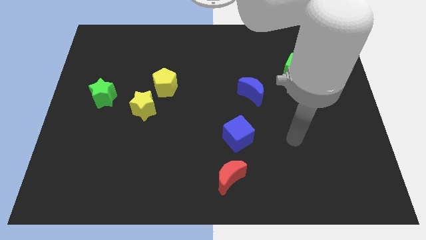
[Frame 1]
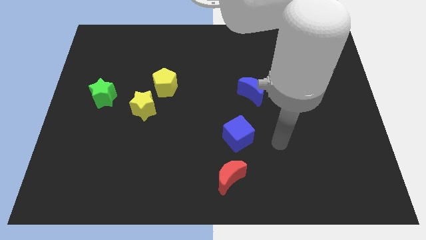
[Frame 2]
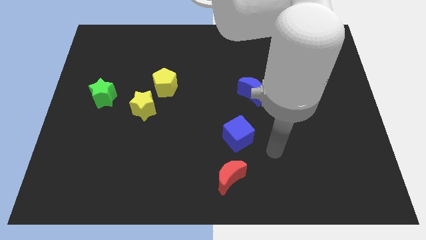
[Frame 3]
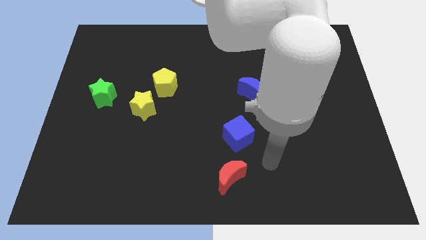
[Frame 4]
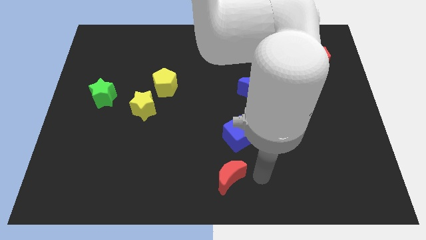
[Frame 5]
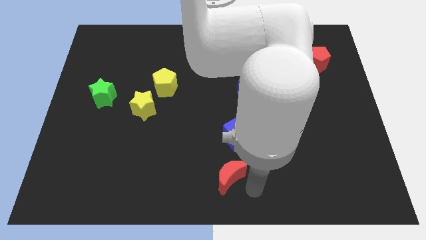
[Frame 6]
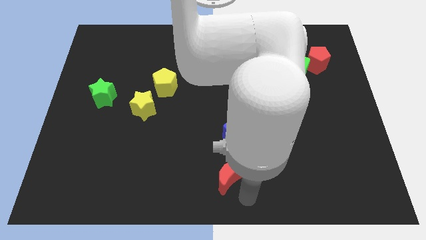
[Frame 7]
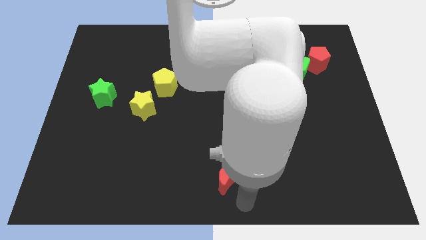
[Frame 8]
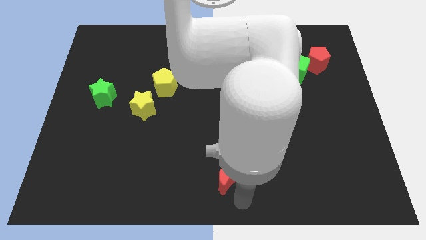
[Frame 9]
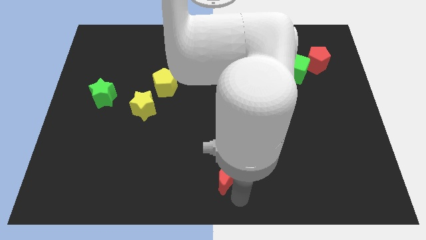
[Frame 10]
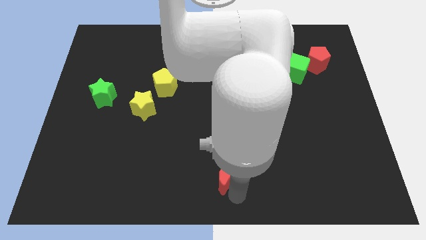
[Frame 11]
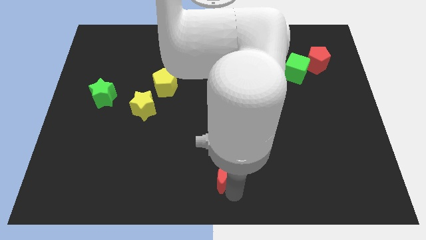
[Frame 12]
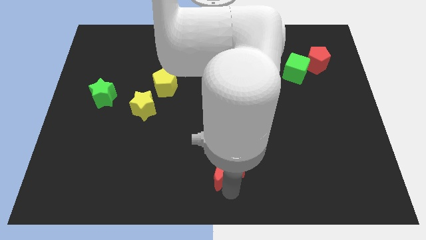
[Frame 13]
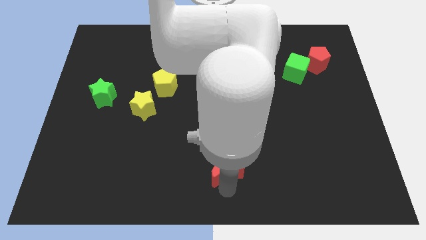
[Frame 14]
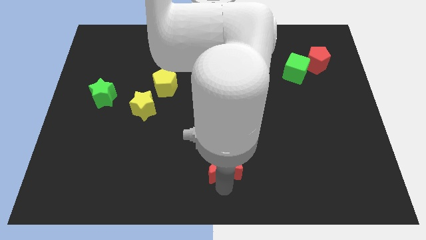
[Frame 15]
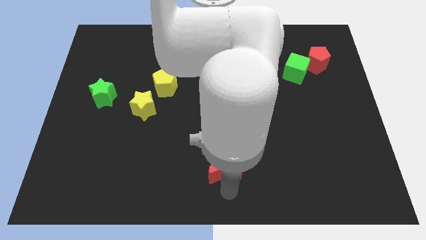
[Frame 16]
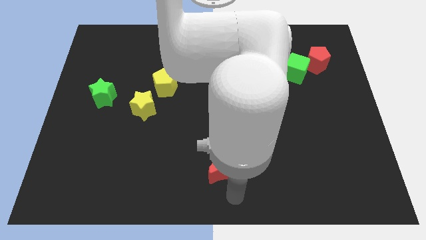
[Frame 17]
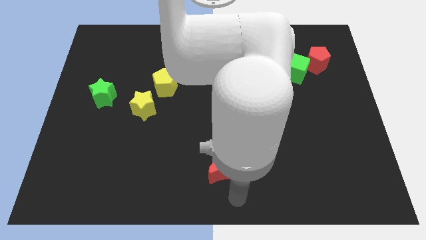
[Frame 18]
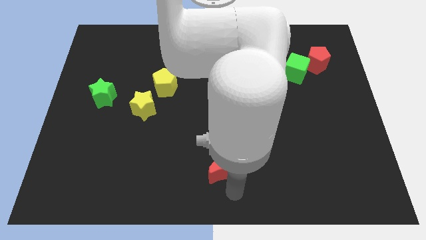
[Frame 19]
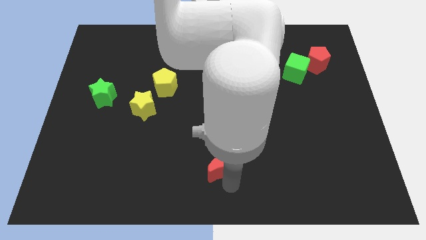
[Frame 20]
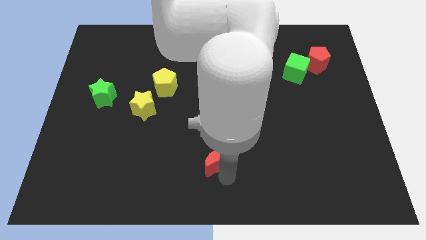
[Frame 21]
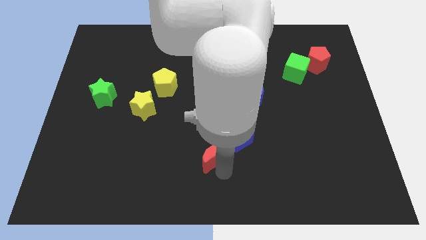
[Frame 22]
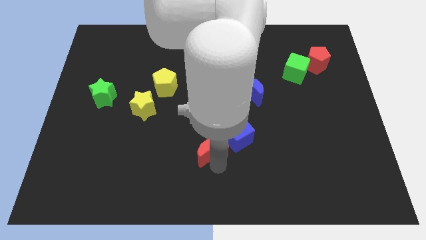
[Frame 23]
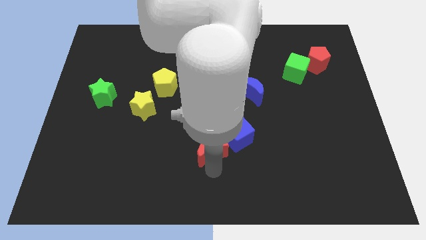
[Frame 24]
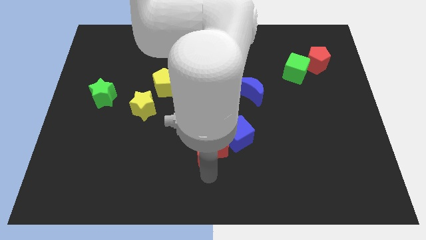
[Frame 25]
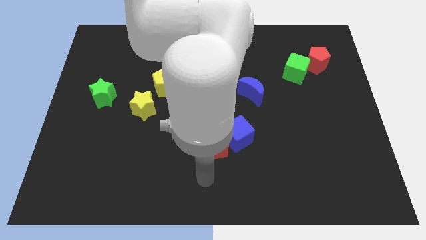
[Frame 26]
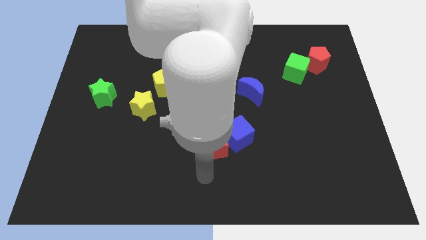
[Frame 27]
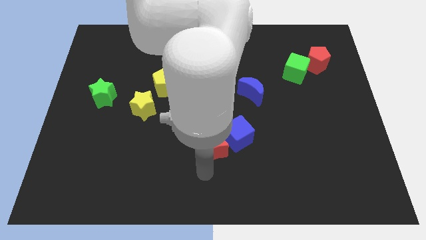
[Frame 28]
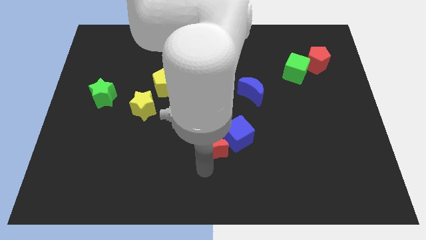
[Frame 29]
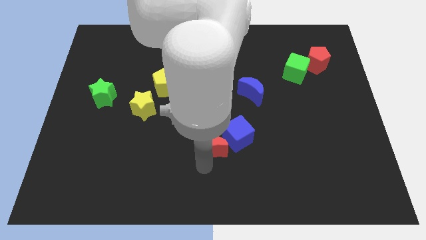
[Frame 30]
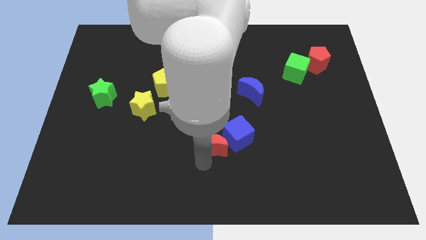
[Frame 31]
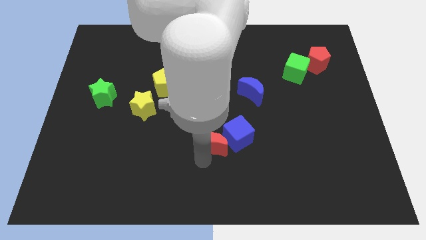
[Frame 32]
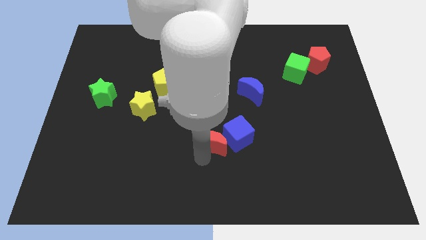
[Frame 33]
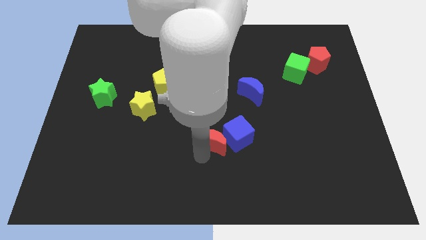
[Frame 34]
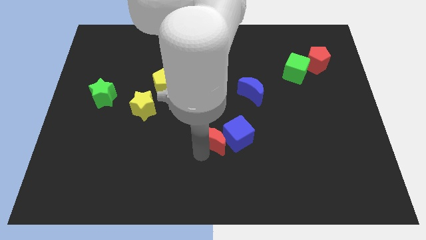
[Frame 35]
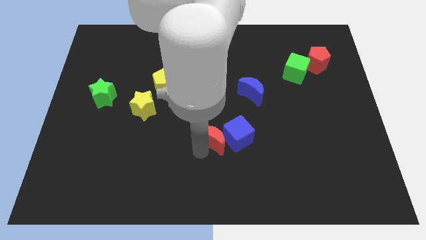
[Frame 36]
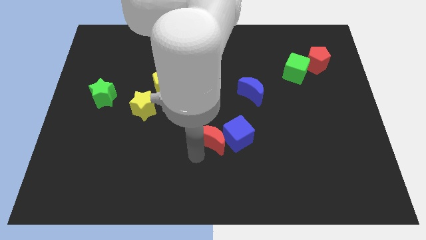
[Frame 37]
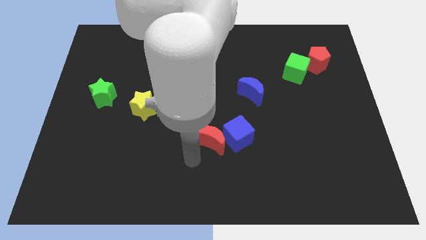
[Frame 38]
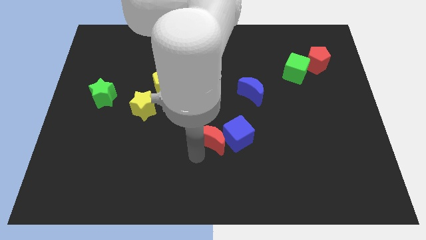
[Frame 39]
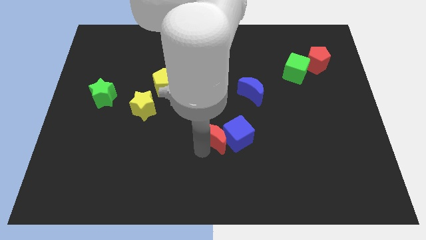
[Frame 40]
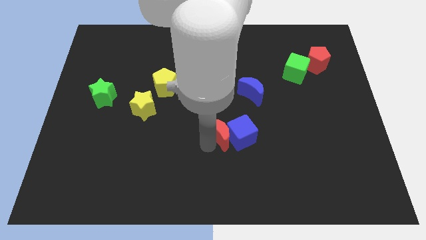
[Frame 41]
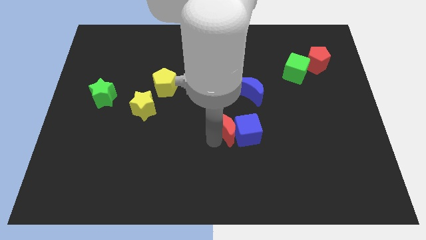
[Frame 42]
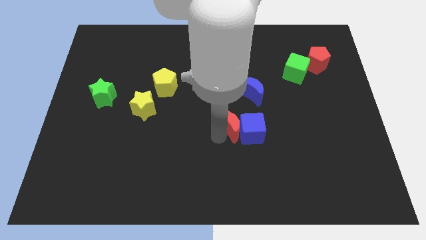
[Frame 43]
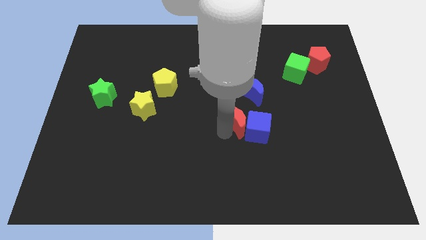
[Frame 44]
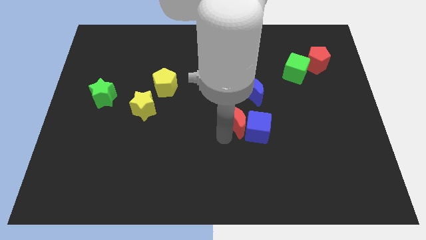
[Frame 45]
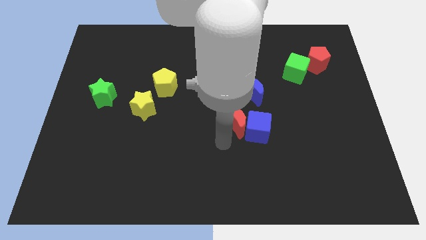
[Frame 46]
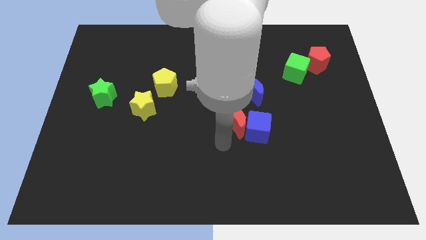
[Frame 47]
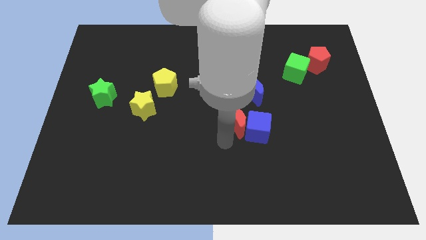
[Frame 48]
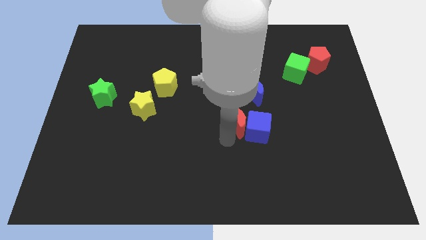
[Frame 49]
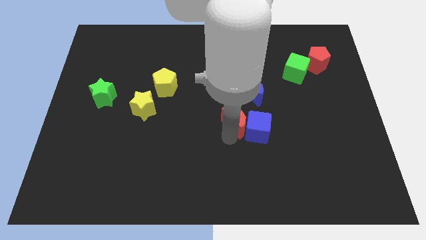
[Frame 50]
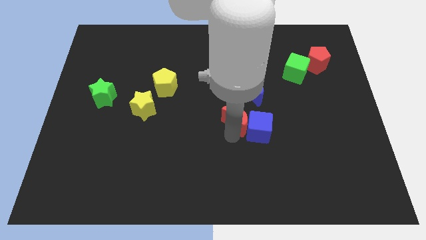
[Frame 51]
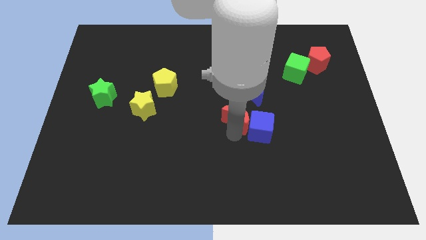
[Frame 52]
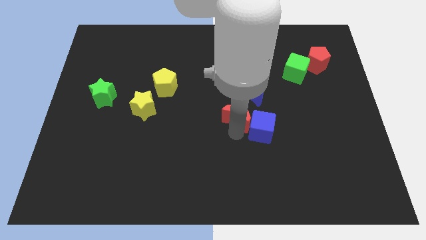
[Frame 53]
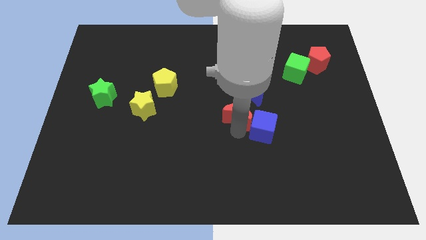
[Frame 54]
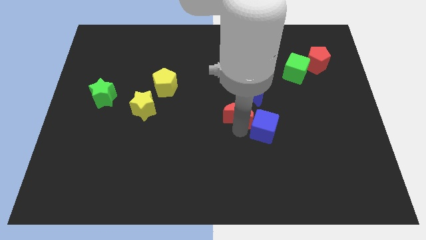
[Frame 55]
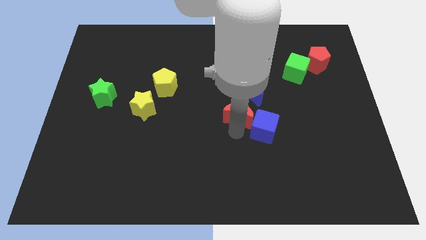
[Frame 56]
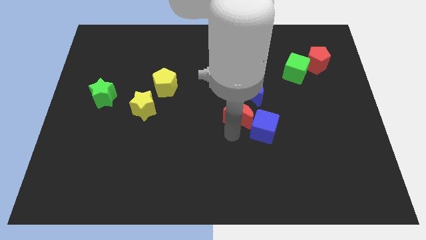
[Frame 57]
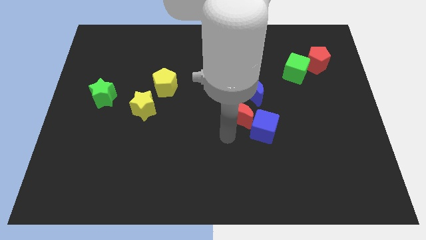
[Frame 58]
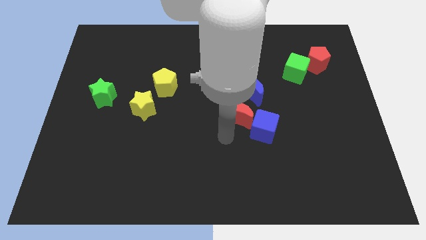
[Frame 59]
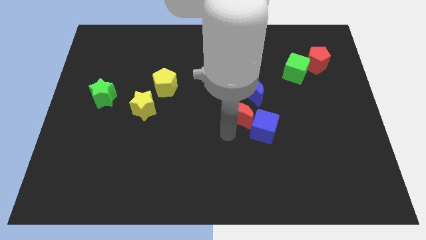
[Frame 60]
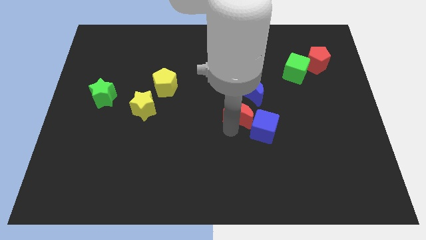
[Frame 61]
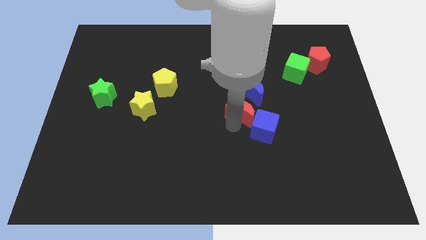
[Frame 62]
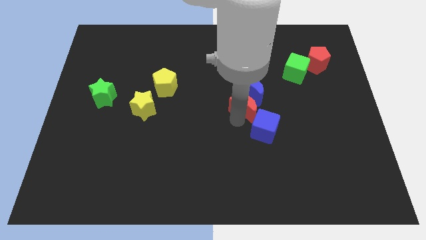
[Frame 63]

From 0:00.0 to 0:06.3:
move the red moon towards the blue moon

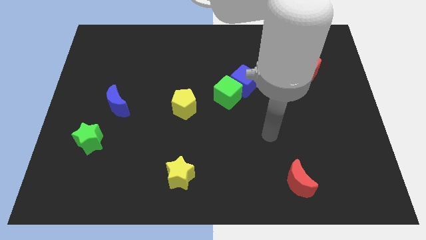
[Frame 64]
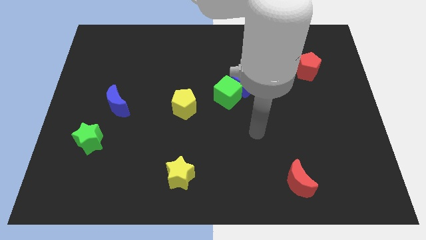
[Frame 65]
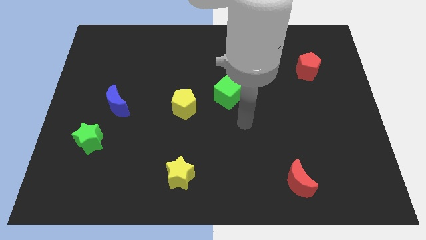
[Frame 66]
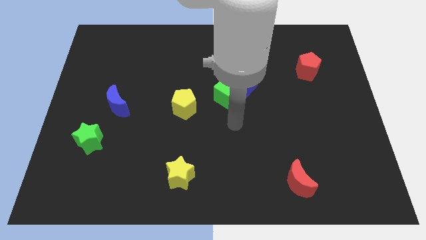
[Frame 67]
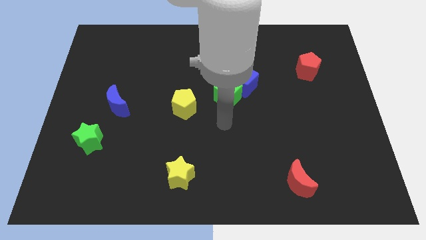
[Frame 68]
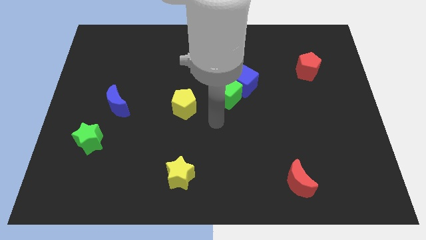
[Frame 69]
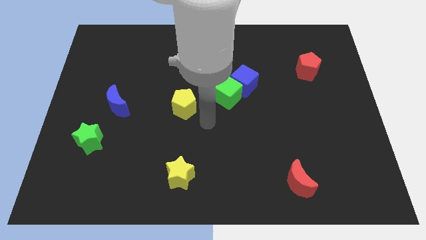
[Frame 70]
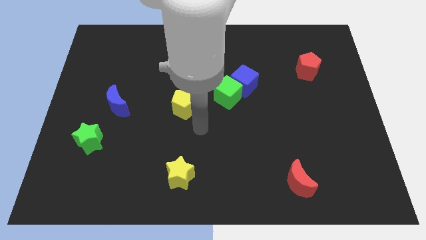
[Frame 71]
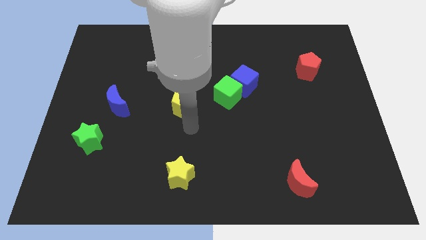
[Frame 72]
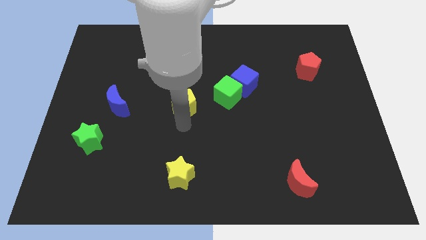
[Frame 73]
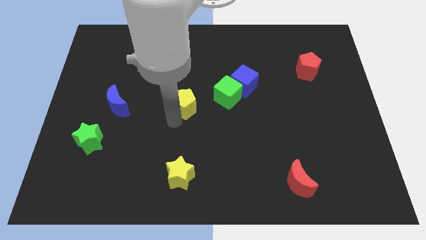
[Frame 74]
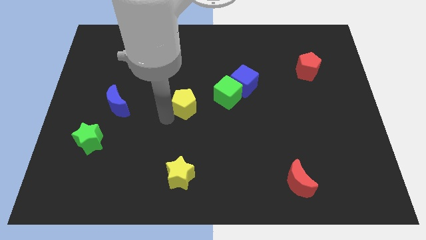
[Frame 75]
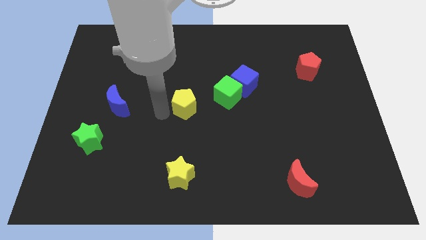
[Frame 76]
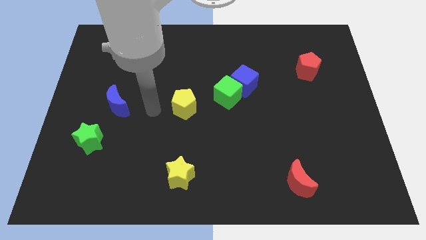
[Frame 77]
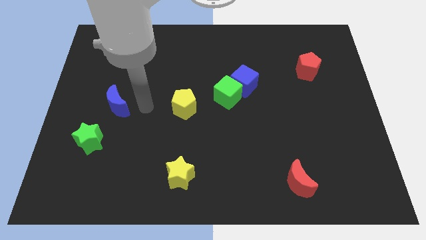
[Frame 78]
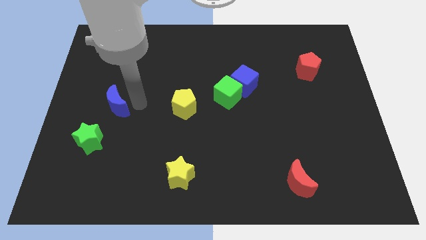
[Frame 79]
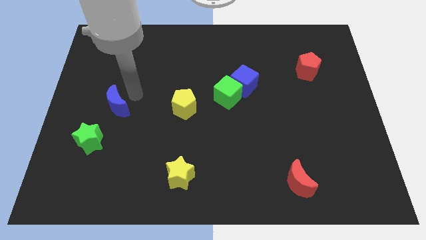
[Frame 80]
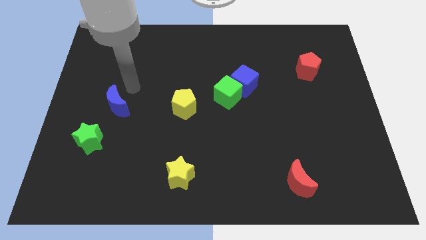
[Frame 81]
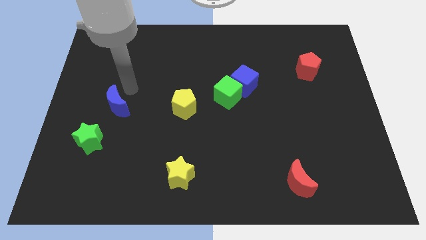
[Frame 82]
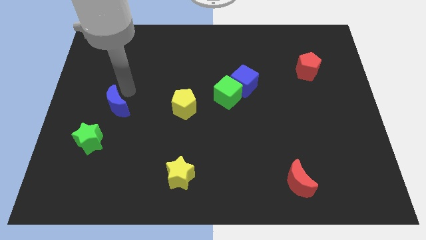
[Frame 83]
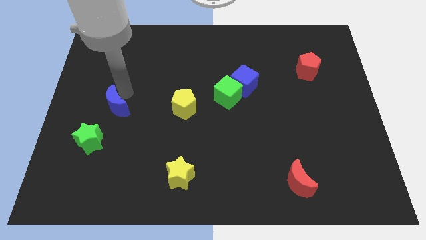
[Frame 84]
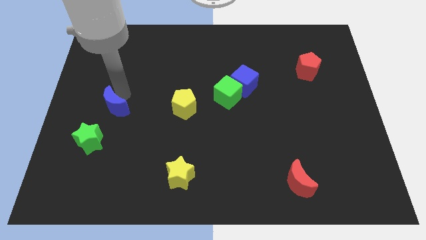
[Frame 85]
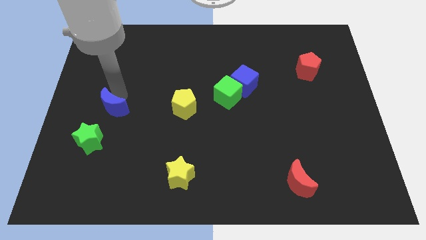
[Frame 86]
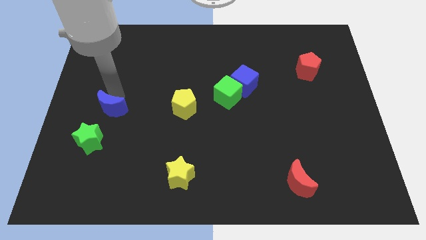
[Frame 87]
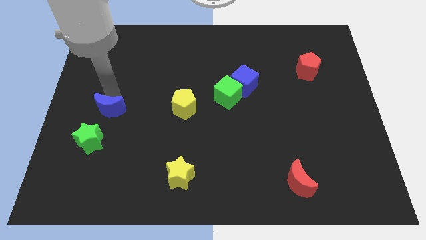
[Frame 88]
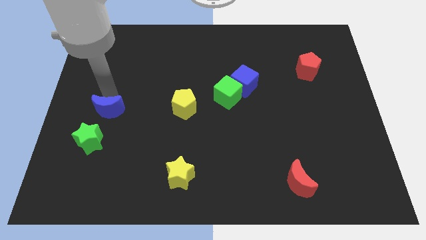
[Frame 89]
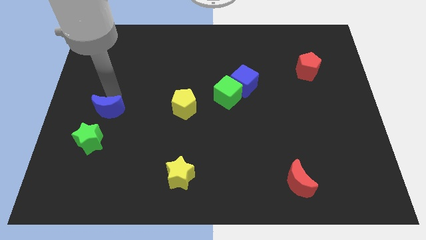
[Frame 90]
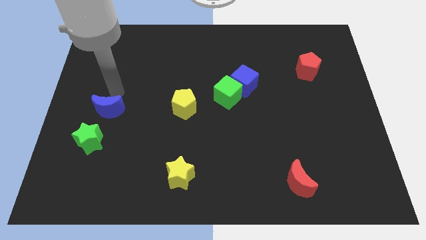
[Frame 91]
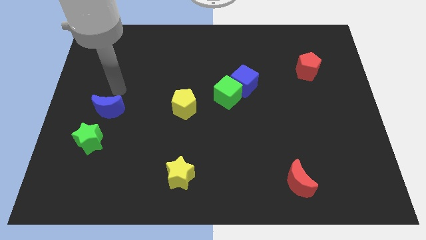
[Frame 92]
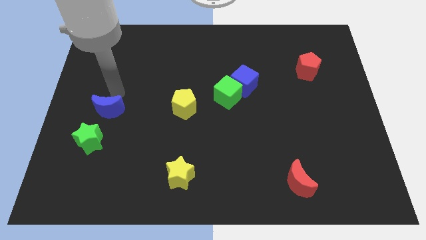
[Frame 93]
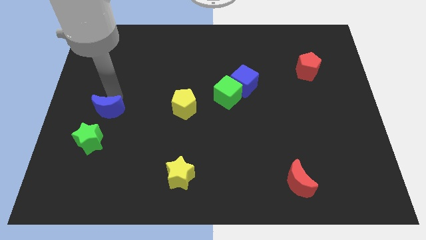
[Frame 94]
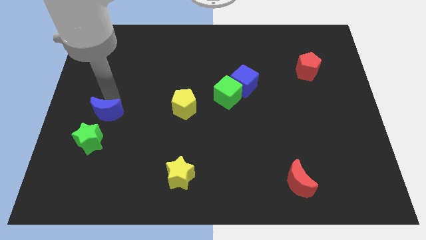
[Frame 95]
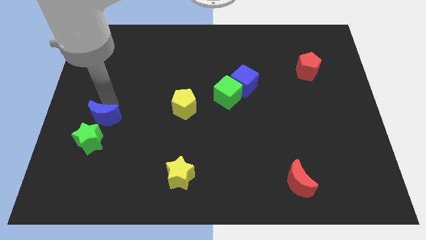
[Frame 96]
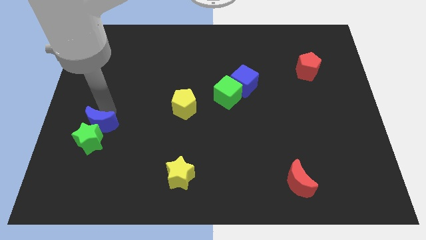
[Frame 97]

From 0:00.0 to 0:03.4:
push the blue moon close to the green star
